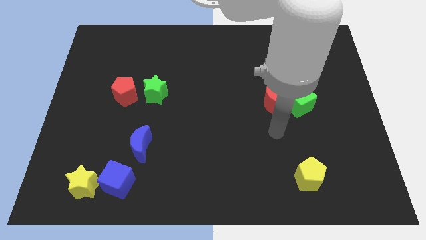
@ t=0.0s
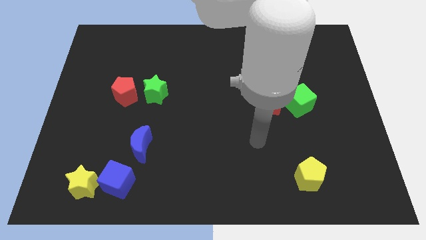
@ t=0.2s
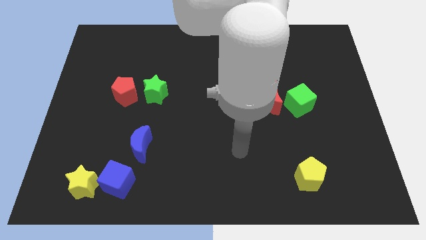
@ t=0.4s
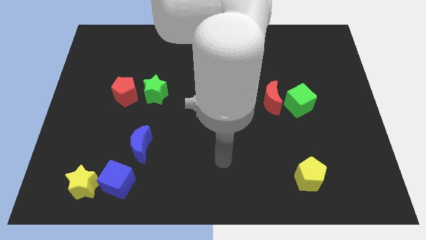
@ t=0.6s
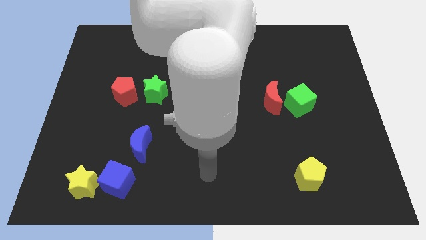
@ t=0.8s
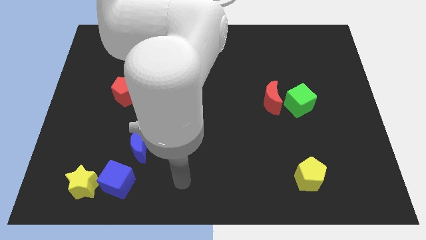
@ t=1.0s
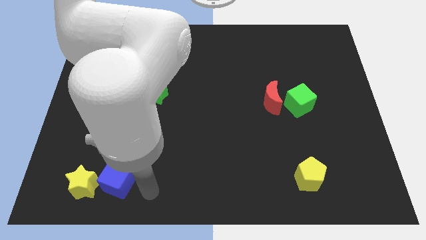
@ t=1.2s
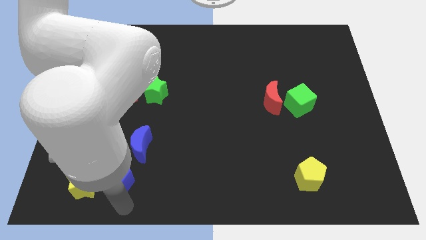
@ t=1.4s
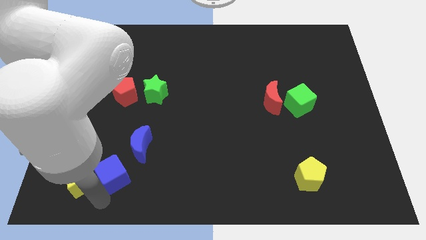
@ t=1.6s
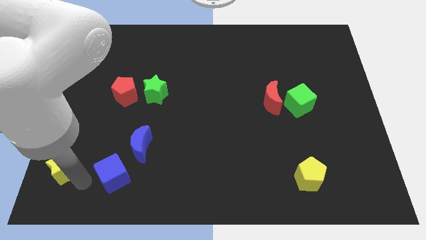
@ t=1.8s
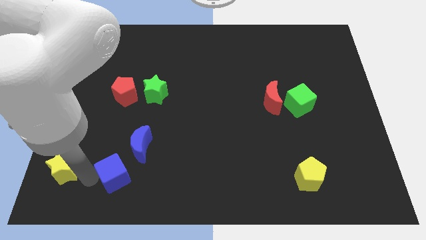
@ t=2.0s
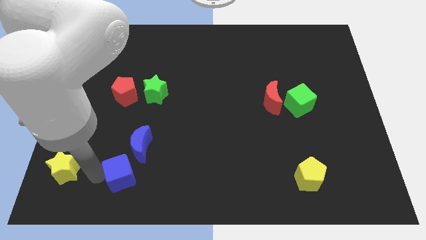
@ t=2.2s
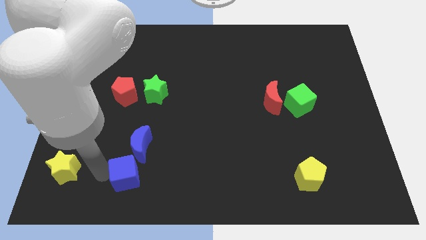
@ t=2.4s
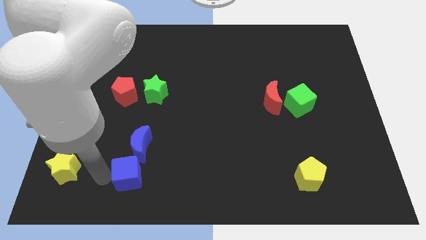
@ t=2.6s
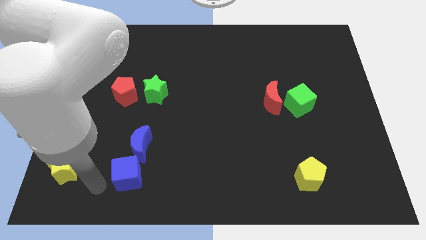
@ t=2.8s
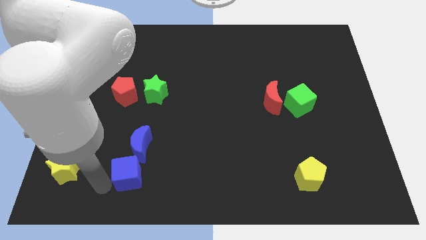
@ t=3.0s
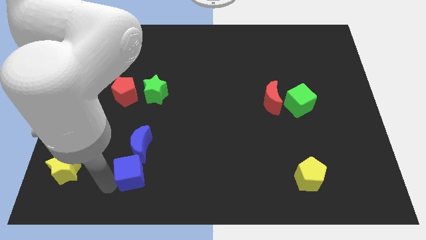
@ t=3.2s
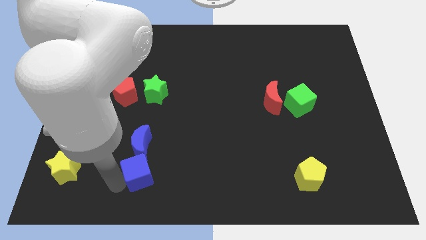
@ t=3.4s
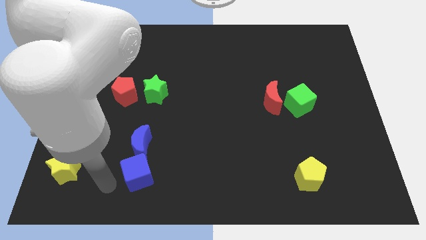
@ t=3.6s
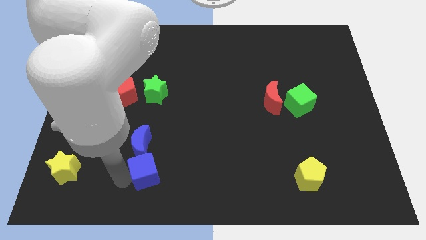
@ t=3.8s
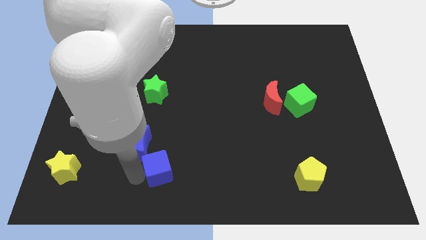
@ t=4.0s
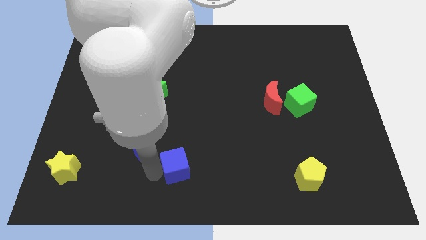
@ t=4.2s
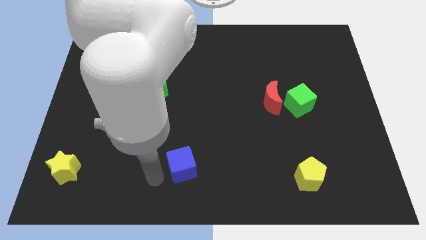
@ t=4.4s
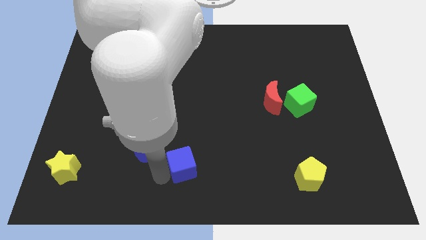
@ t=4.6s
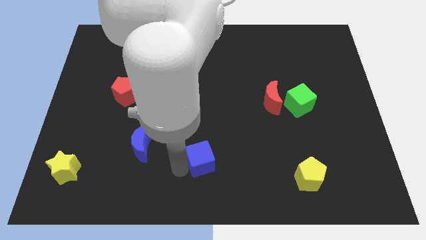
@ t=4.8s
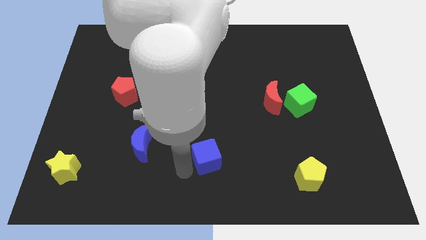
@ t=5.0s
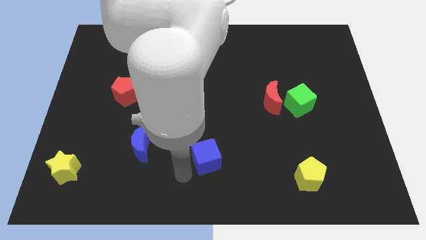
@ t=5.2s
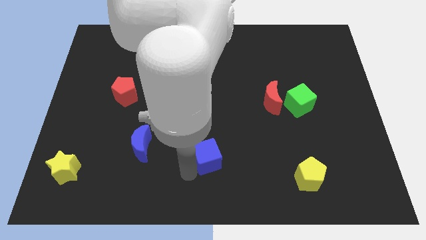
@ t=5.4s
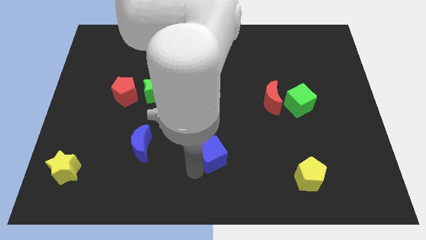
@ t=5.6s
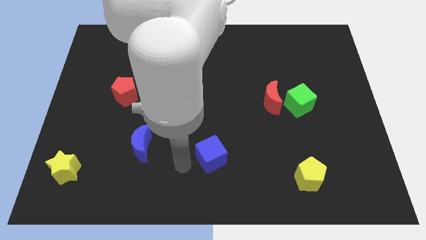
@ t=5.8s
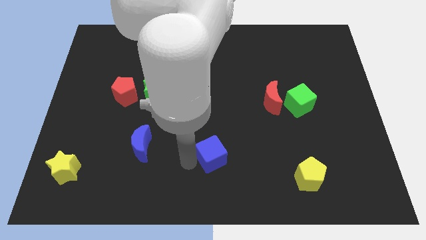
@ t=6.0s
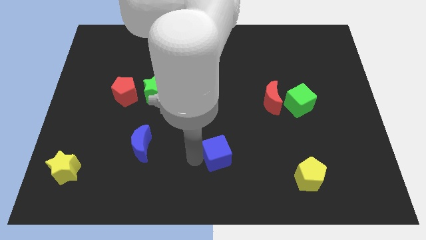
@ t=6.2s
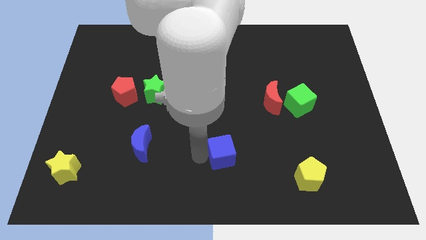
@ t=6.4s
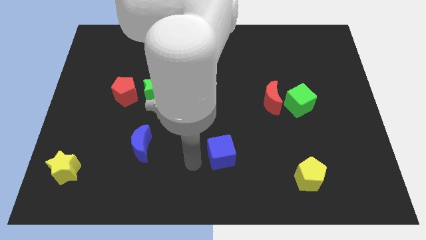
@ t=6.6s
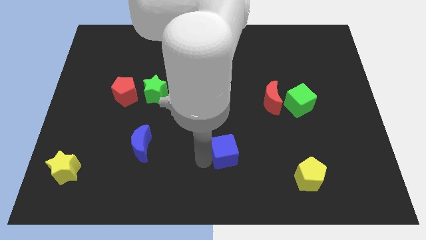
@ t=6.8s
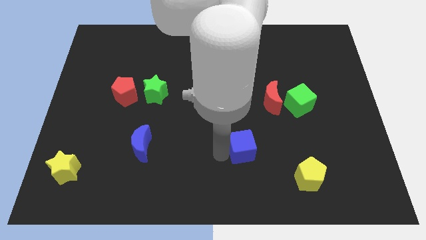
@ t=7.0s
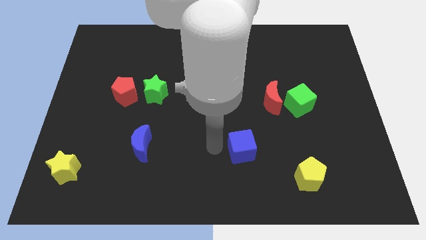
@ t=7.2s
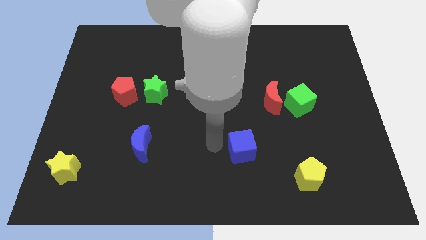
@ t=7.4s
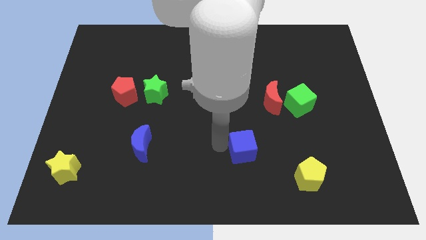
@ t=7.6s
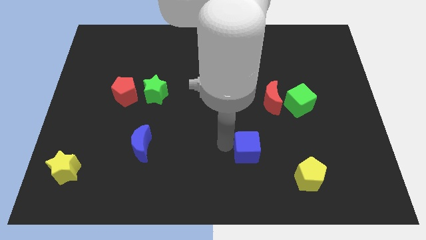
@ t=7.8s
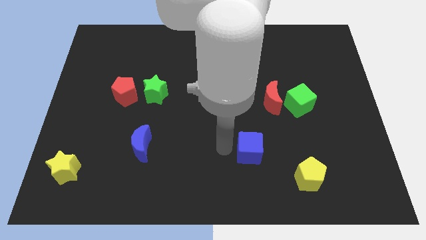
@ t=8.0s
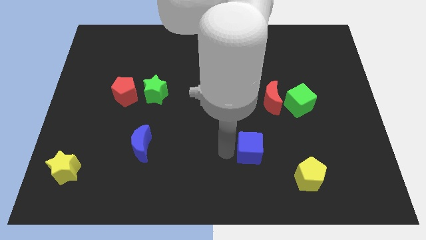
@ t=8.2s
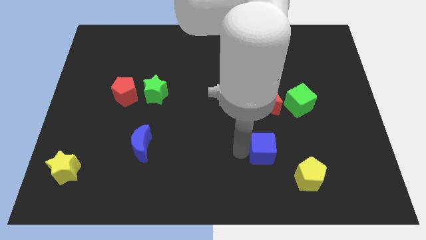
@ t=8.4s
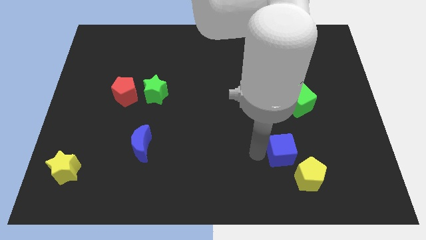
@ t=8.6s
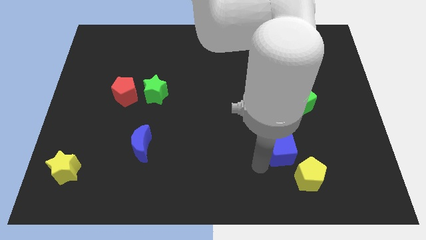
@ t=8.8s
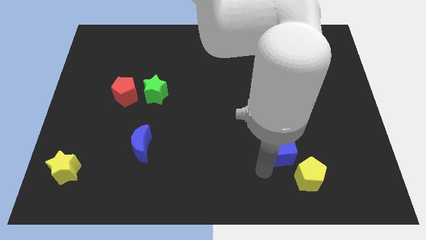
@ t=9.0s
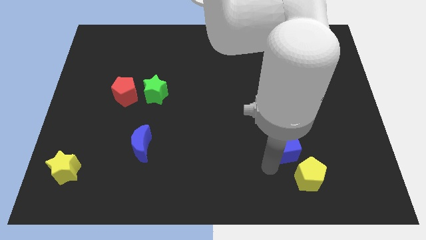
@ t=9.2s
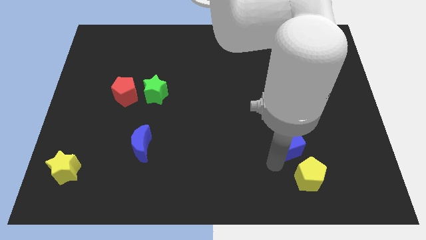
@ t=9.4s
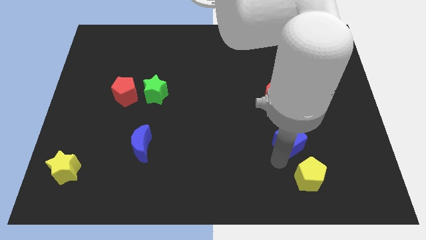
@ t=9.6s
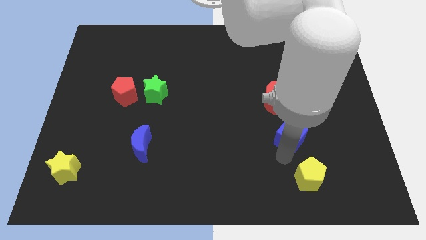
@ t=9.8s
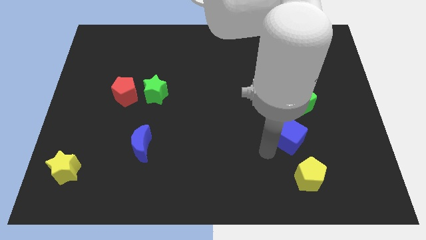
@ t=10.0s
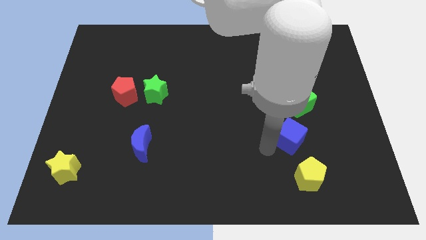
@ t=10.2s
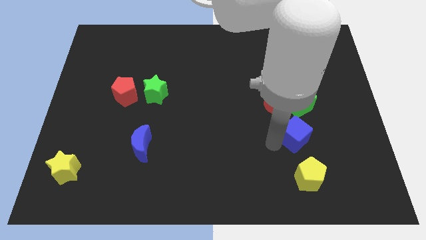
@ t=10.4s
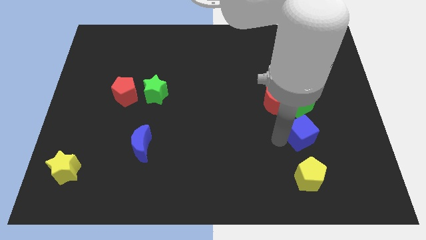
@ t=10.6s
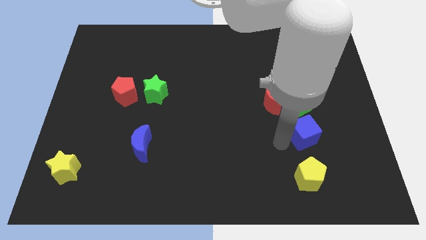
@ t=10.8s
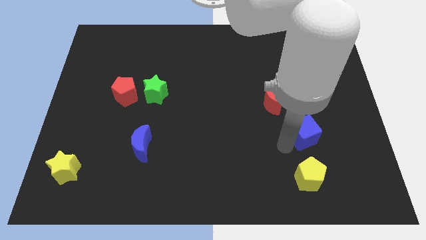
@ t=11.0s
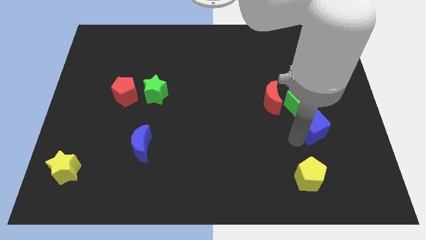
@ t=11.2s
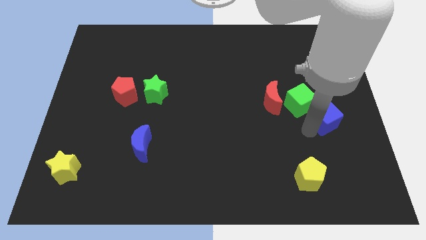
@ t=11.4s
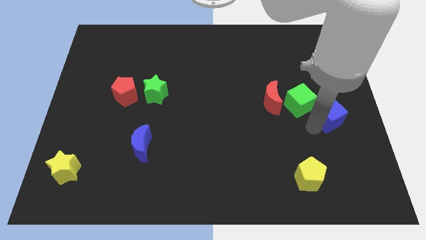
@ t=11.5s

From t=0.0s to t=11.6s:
move the blue cube to the right side
